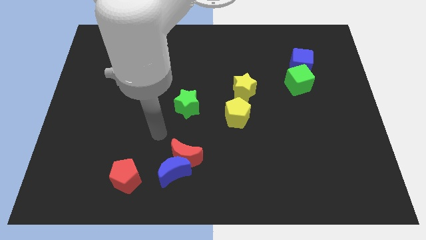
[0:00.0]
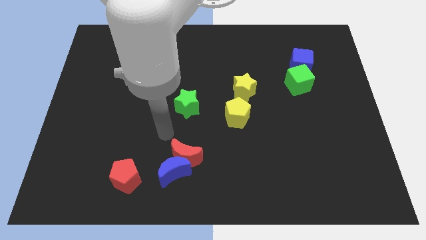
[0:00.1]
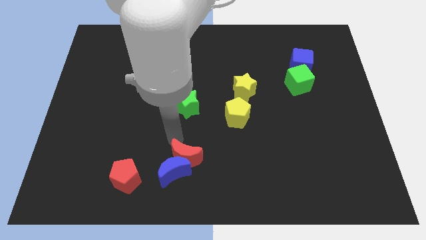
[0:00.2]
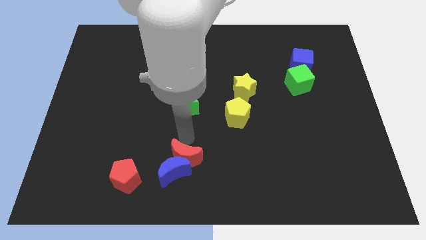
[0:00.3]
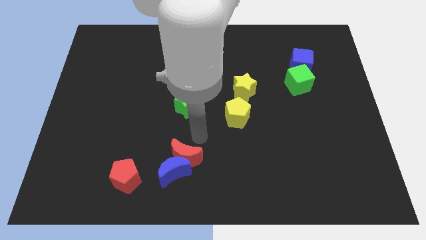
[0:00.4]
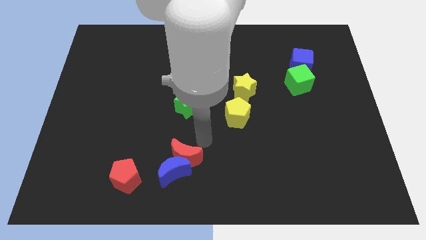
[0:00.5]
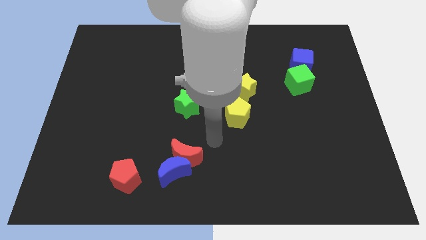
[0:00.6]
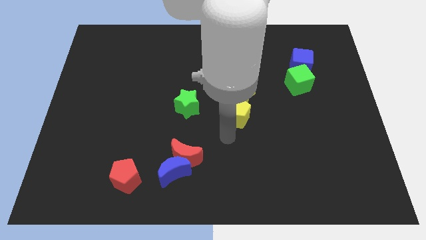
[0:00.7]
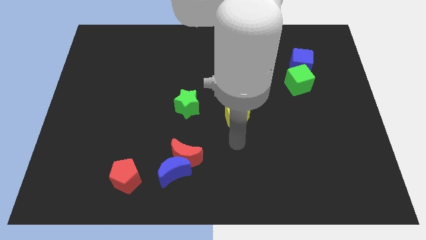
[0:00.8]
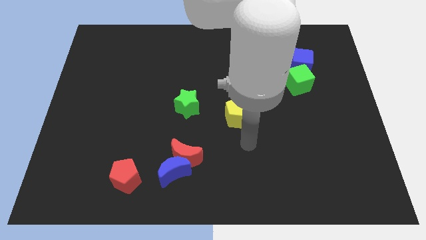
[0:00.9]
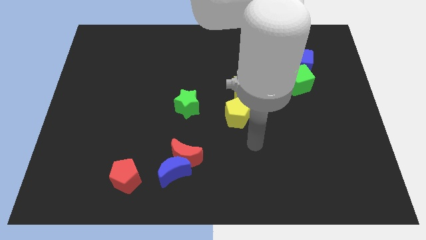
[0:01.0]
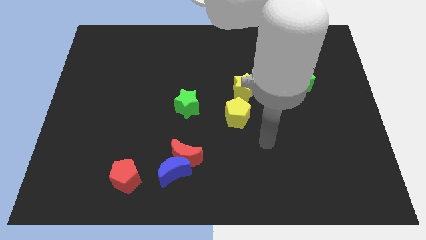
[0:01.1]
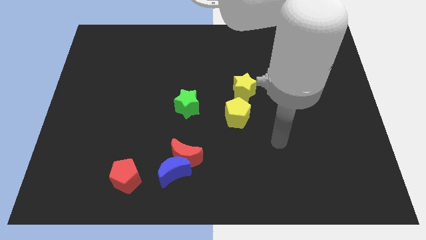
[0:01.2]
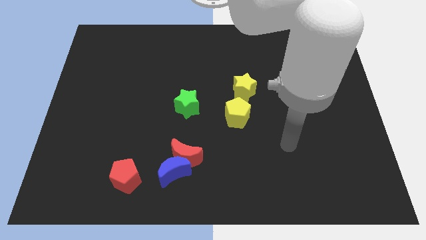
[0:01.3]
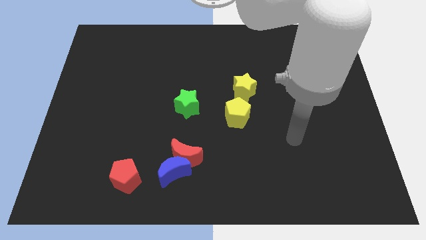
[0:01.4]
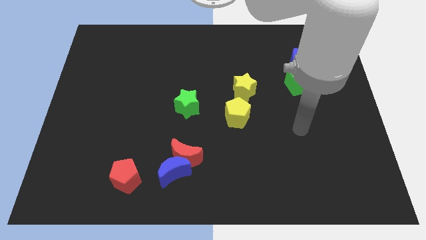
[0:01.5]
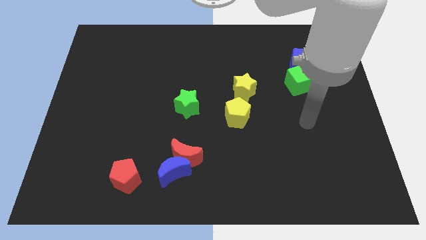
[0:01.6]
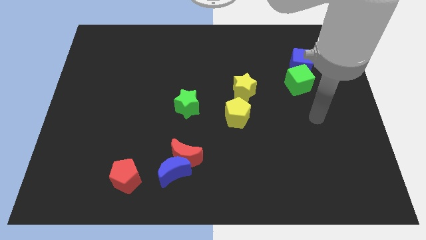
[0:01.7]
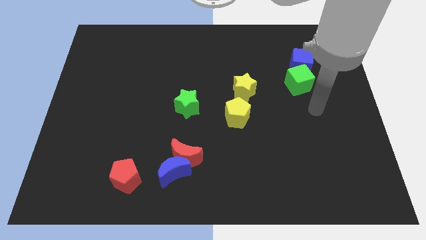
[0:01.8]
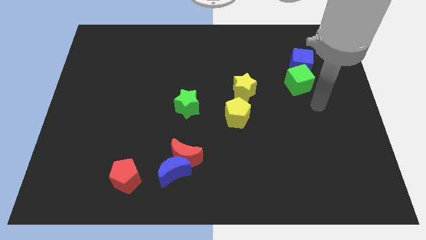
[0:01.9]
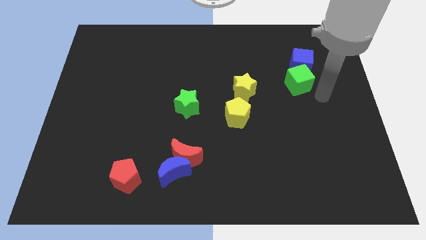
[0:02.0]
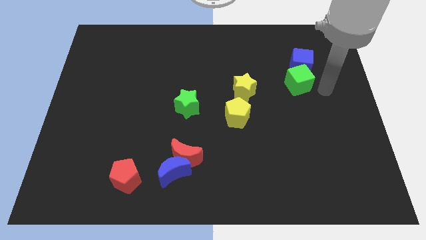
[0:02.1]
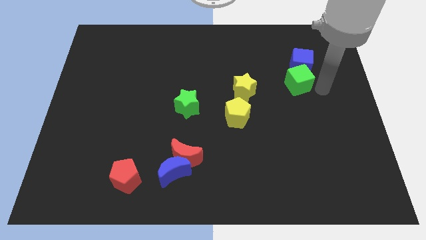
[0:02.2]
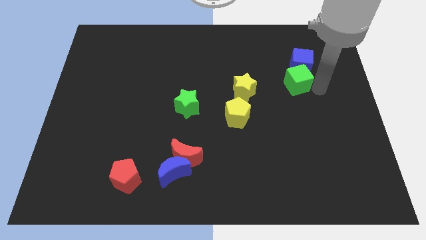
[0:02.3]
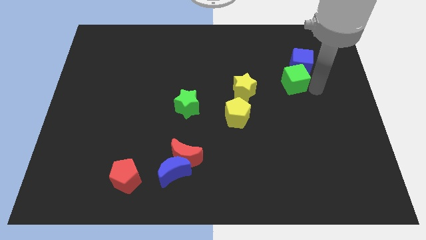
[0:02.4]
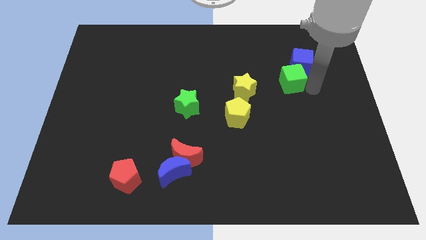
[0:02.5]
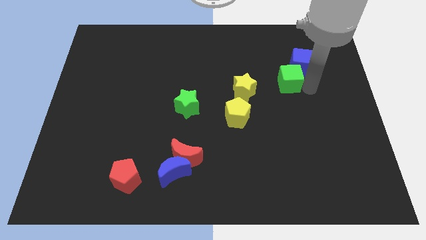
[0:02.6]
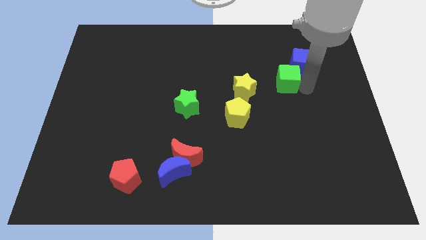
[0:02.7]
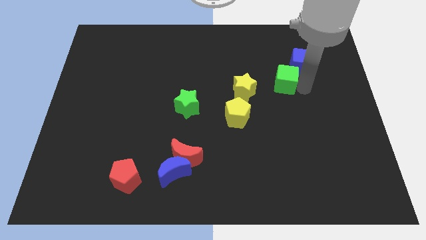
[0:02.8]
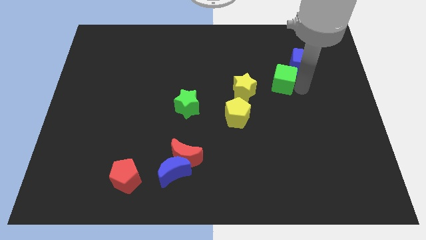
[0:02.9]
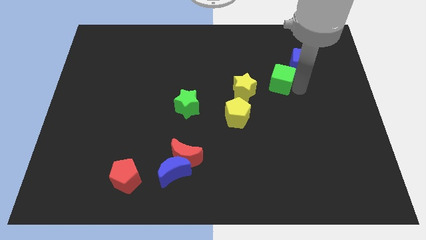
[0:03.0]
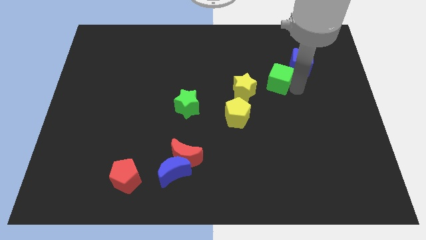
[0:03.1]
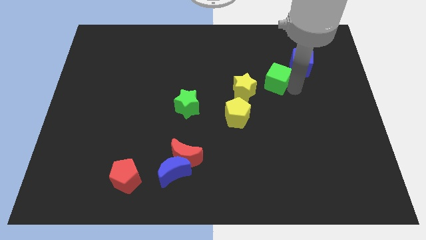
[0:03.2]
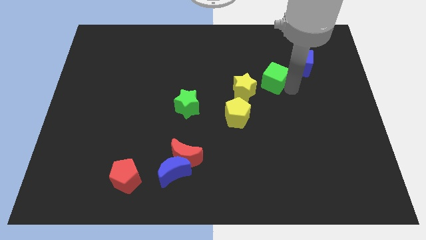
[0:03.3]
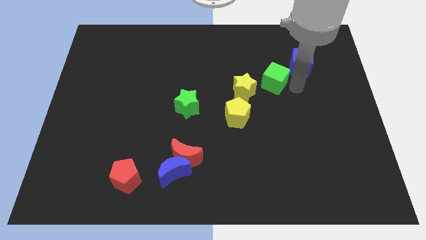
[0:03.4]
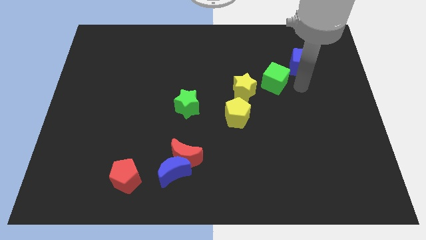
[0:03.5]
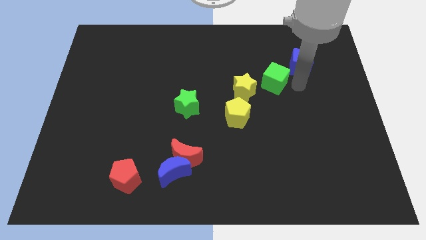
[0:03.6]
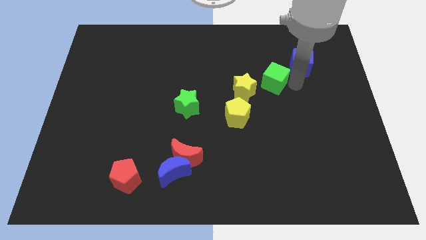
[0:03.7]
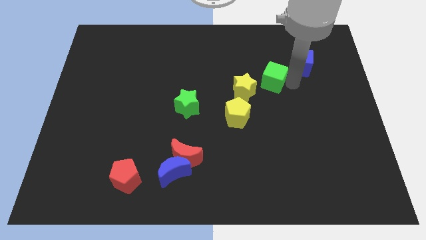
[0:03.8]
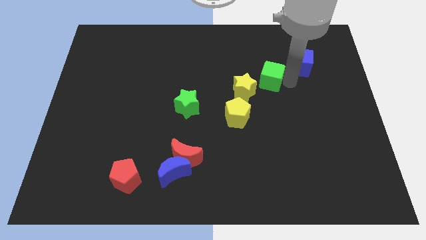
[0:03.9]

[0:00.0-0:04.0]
push the green cube a little bit left

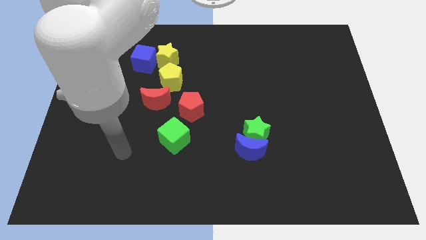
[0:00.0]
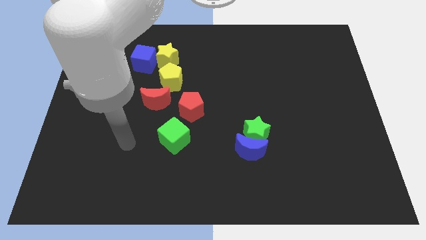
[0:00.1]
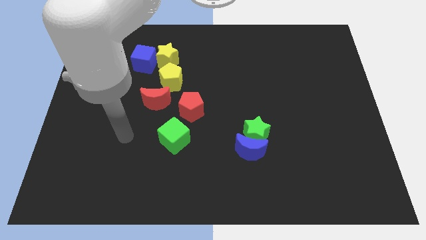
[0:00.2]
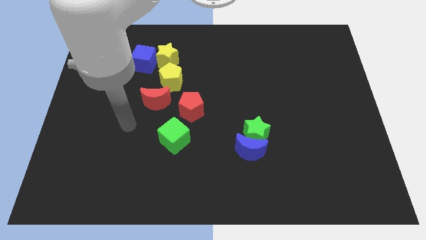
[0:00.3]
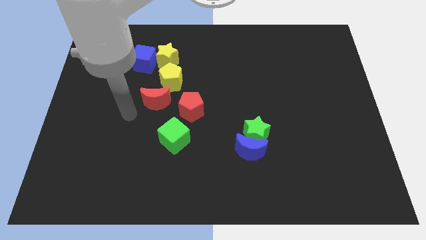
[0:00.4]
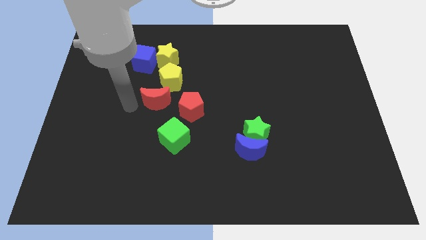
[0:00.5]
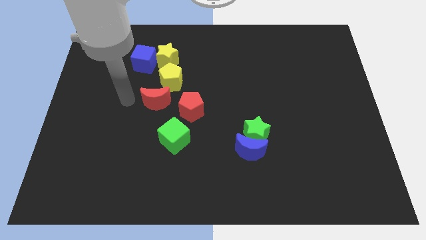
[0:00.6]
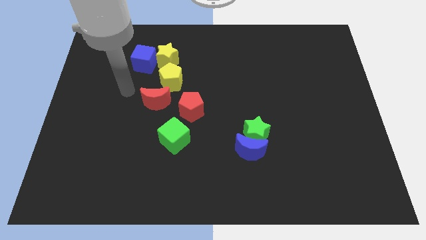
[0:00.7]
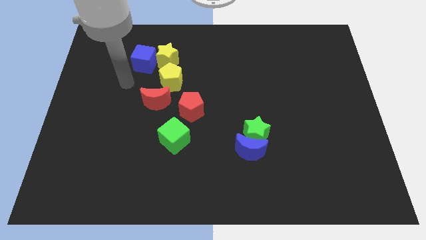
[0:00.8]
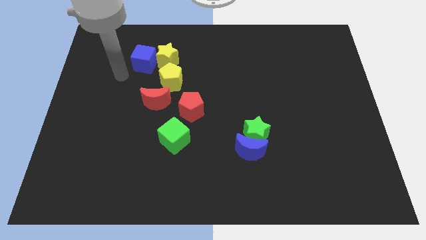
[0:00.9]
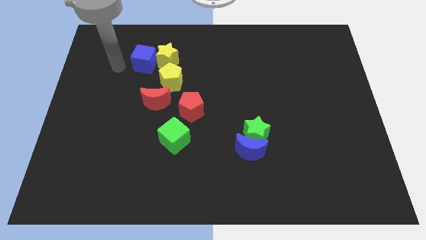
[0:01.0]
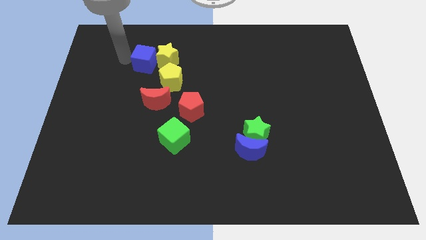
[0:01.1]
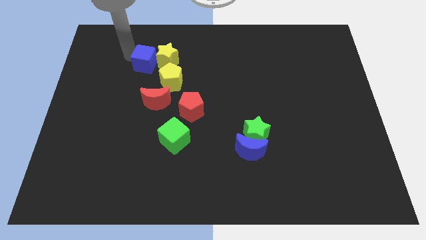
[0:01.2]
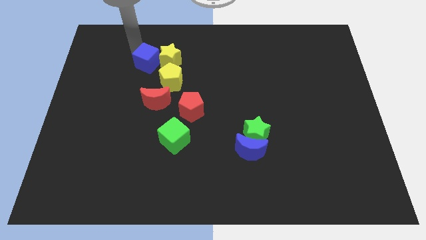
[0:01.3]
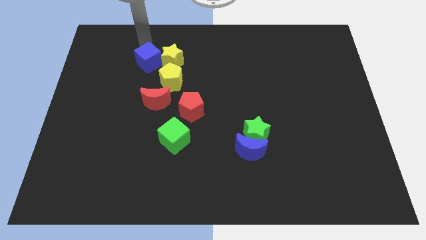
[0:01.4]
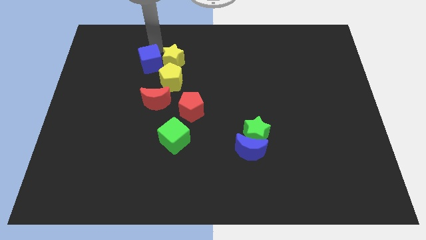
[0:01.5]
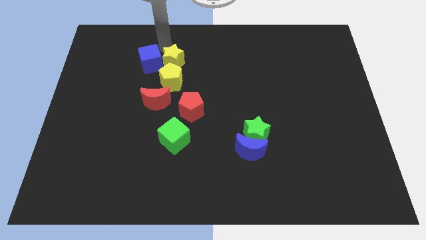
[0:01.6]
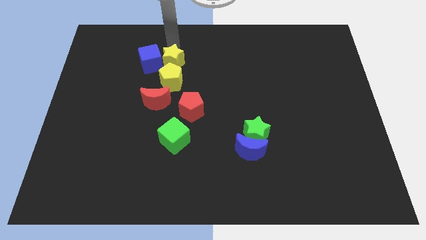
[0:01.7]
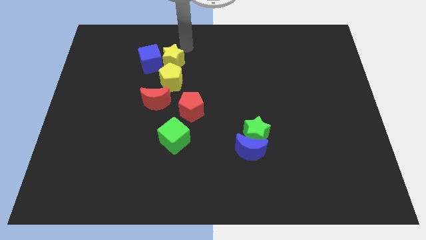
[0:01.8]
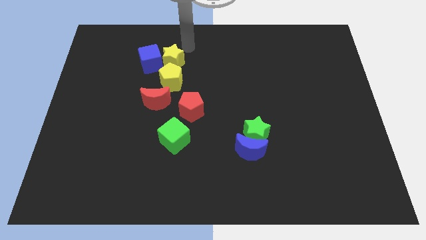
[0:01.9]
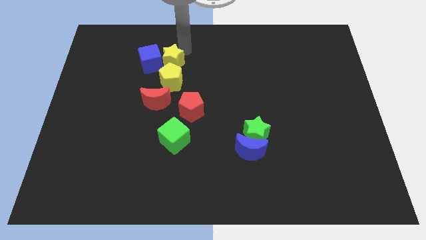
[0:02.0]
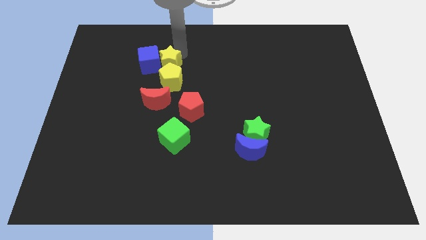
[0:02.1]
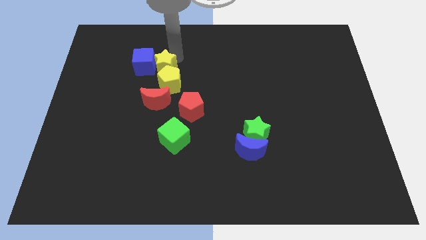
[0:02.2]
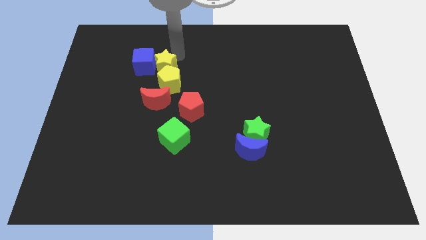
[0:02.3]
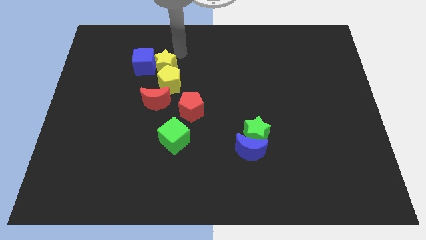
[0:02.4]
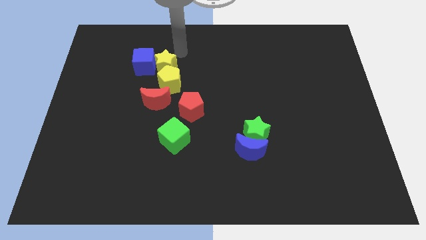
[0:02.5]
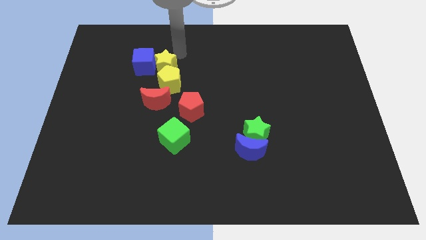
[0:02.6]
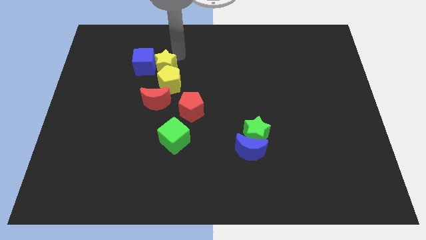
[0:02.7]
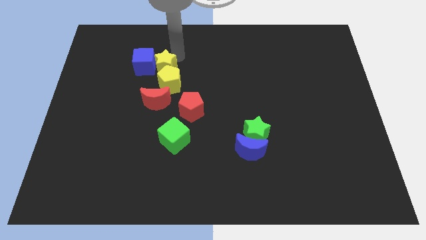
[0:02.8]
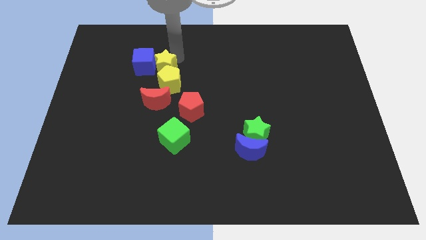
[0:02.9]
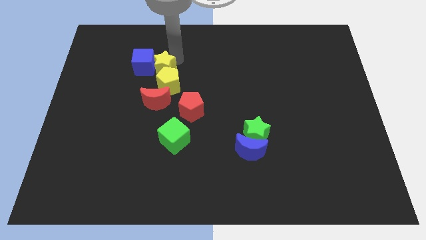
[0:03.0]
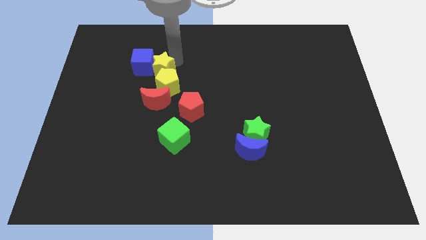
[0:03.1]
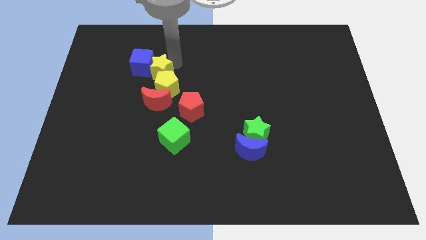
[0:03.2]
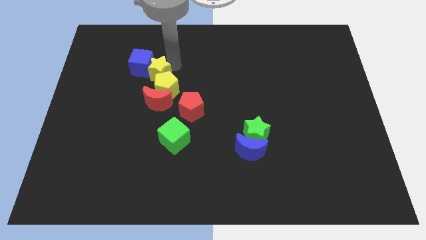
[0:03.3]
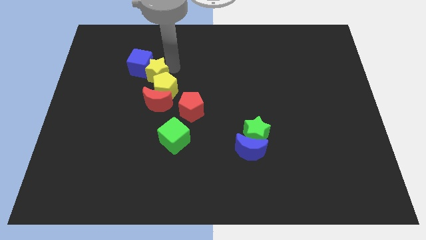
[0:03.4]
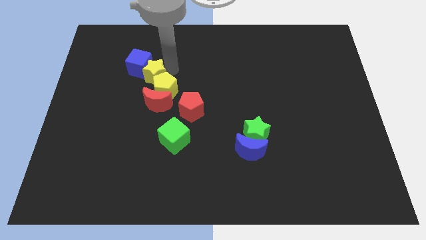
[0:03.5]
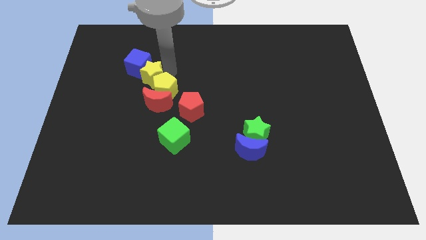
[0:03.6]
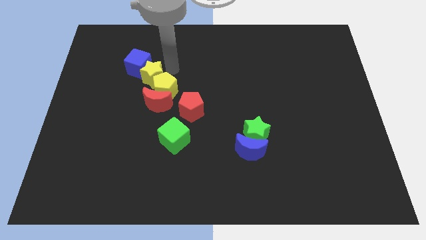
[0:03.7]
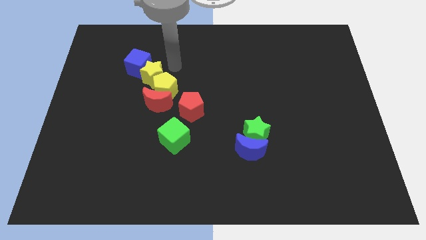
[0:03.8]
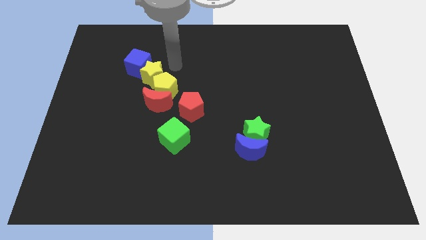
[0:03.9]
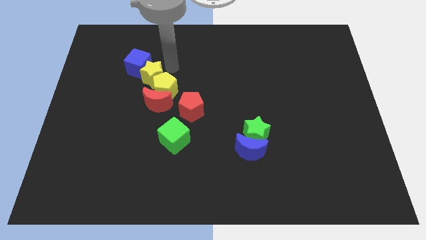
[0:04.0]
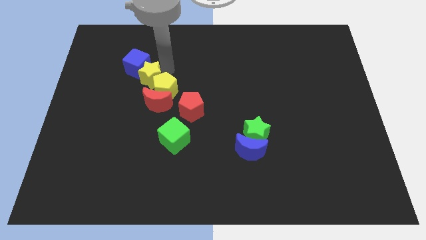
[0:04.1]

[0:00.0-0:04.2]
slightly slide the yellow star downwards and then left
